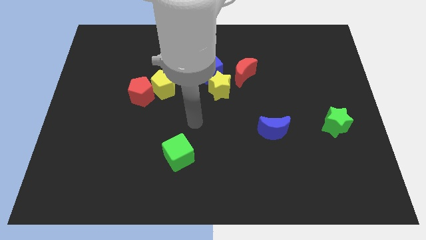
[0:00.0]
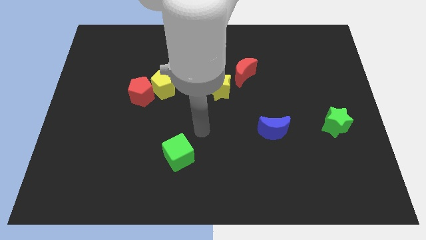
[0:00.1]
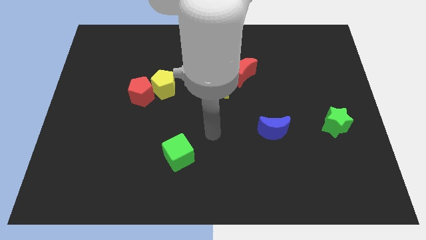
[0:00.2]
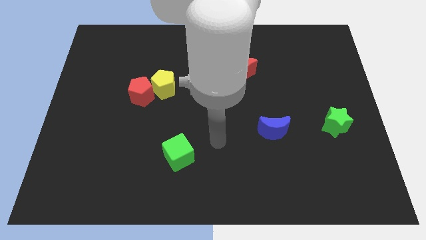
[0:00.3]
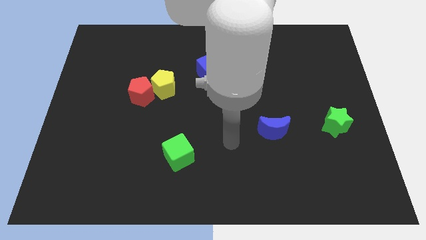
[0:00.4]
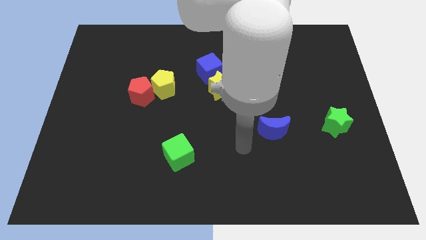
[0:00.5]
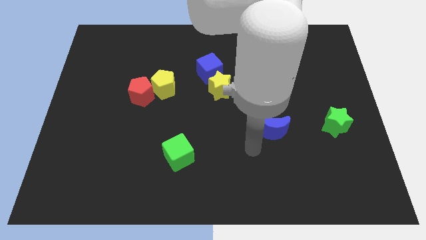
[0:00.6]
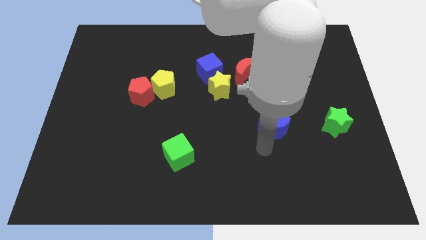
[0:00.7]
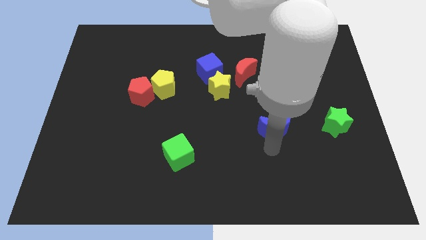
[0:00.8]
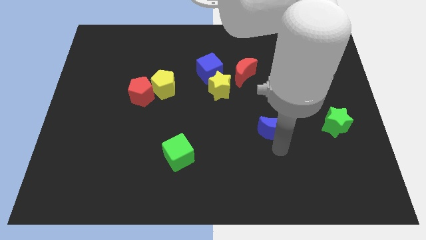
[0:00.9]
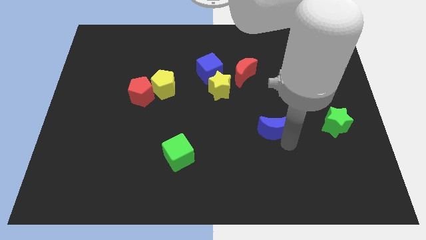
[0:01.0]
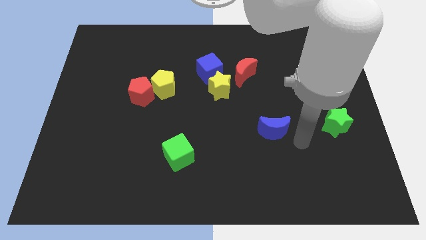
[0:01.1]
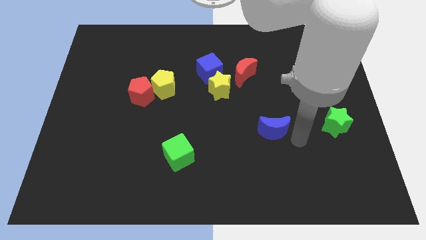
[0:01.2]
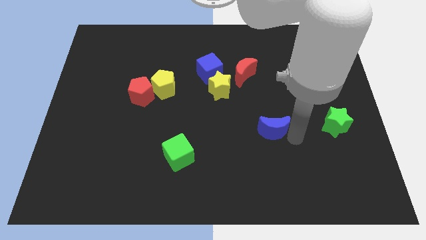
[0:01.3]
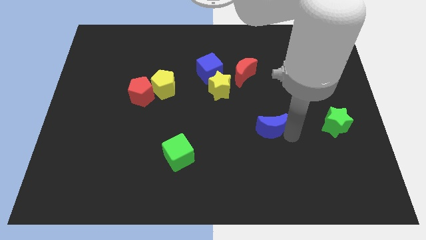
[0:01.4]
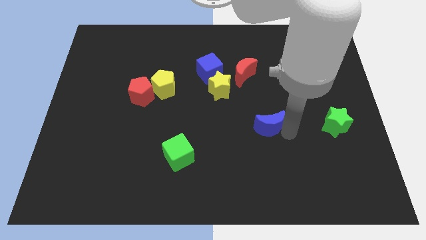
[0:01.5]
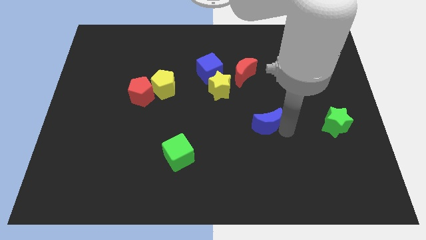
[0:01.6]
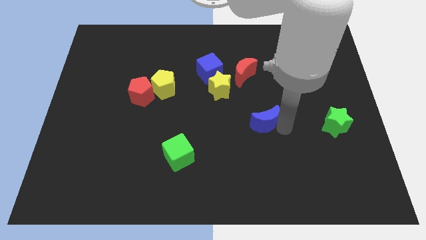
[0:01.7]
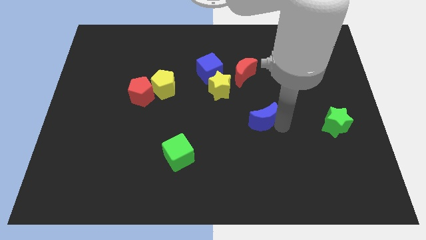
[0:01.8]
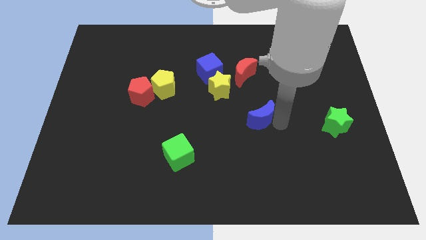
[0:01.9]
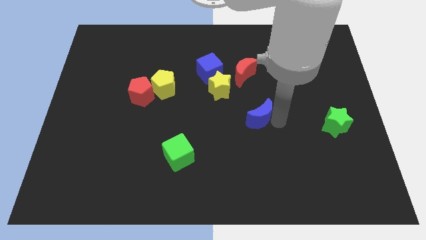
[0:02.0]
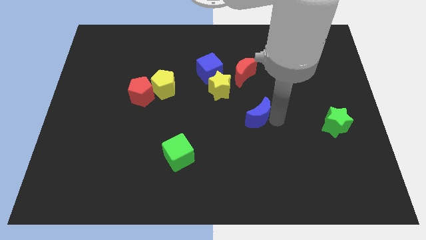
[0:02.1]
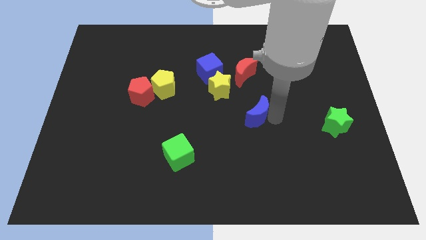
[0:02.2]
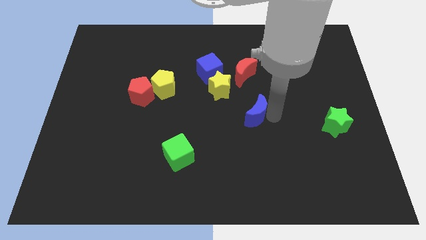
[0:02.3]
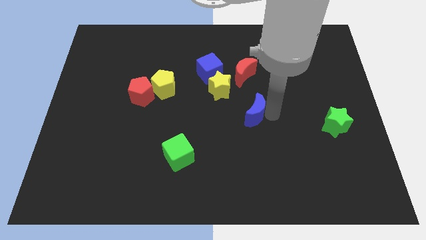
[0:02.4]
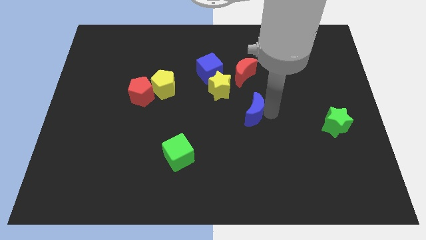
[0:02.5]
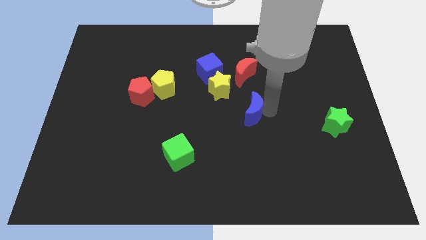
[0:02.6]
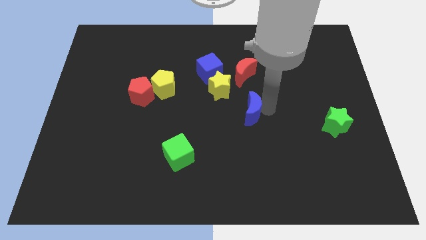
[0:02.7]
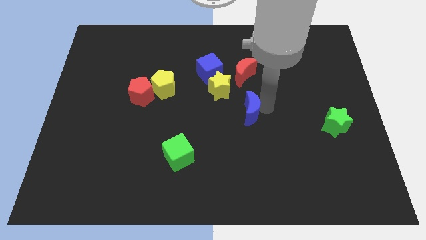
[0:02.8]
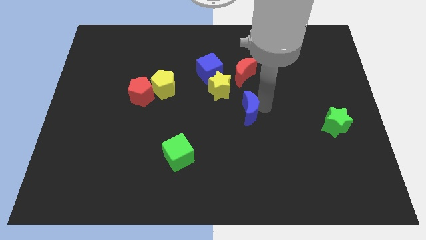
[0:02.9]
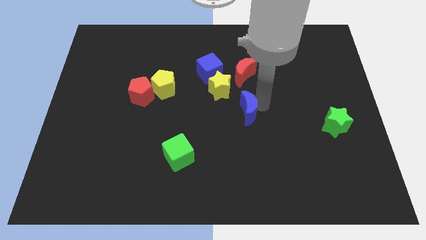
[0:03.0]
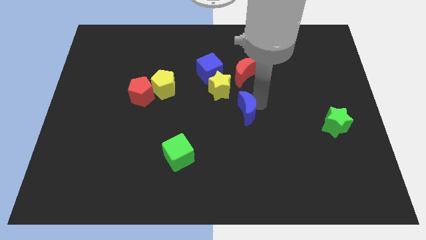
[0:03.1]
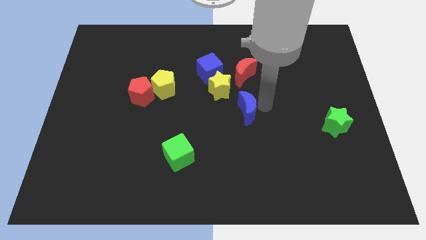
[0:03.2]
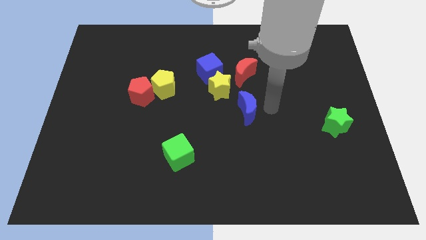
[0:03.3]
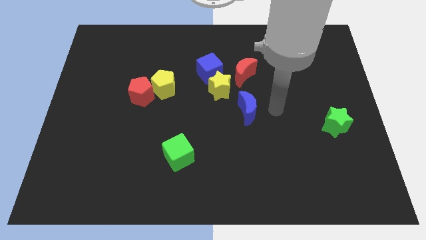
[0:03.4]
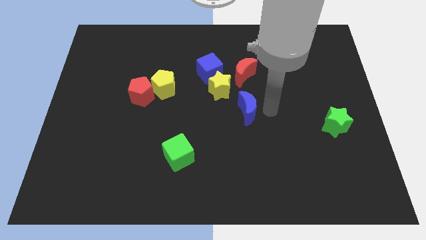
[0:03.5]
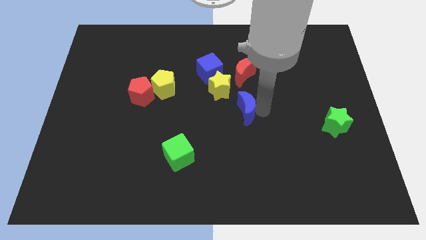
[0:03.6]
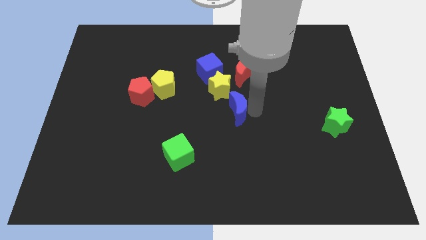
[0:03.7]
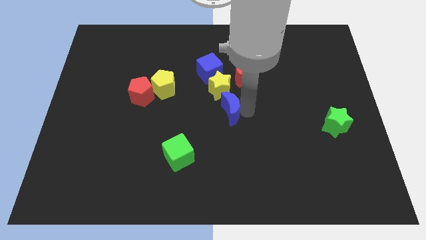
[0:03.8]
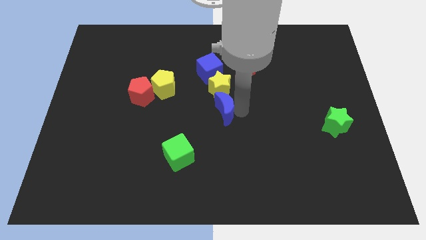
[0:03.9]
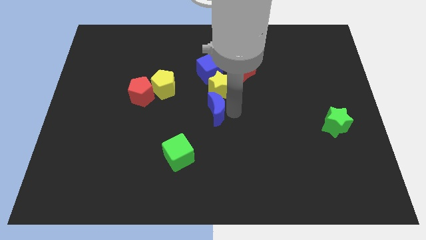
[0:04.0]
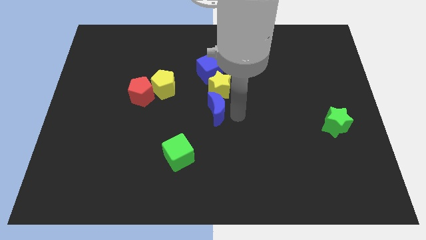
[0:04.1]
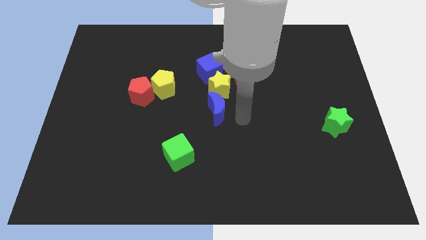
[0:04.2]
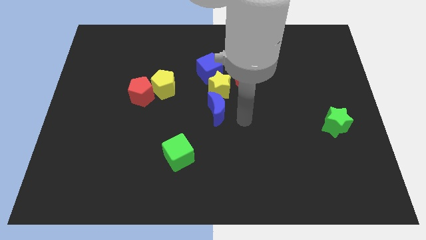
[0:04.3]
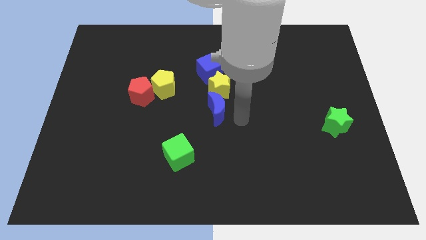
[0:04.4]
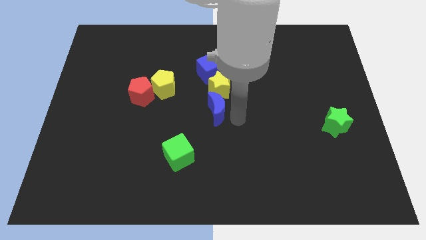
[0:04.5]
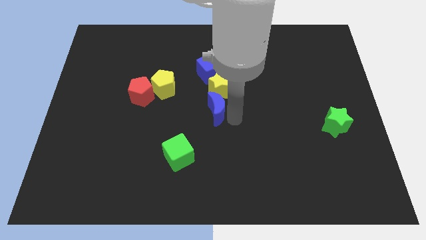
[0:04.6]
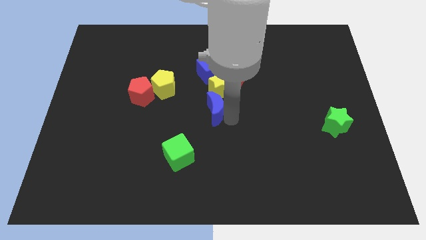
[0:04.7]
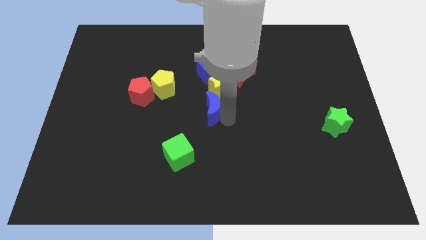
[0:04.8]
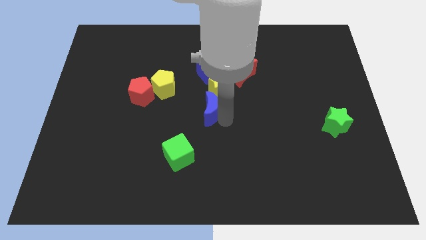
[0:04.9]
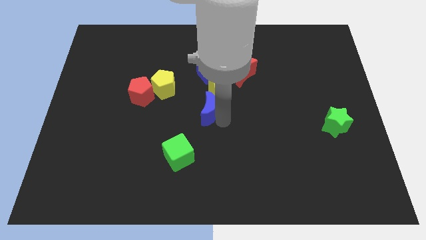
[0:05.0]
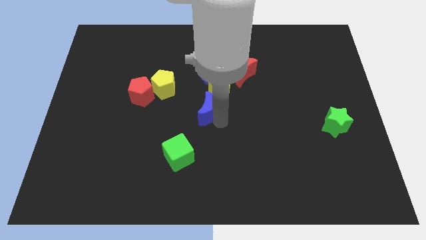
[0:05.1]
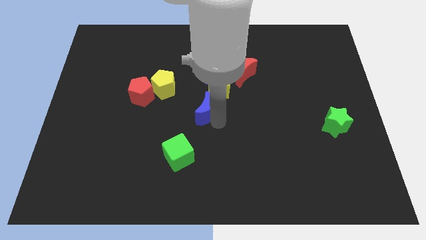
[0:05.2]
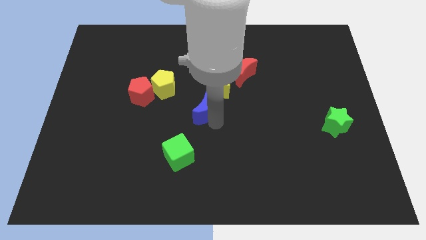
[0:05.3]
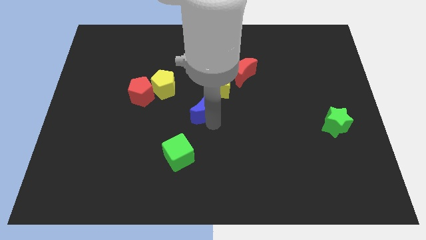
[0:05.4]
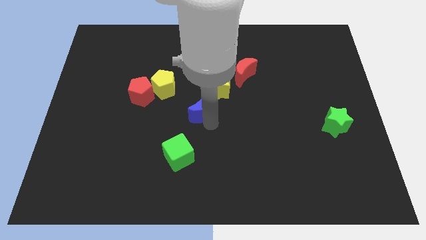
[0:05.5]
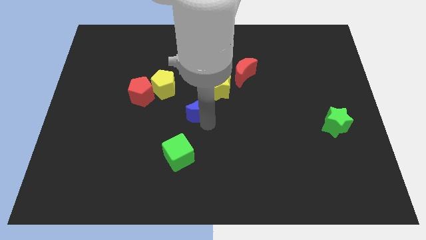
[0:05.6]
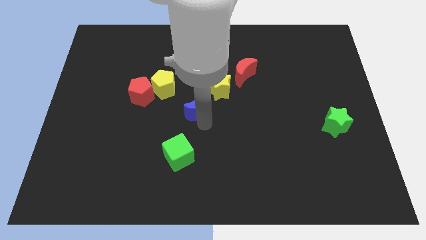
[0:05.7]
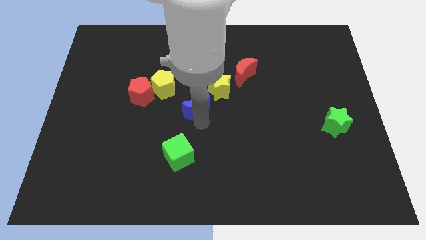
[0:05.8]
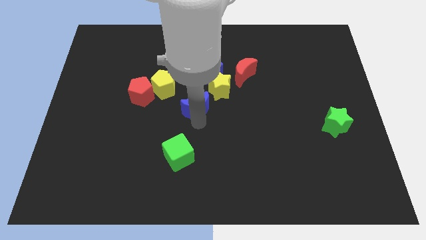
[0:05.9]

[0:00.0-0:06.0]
push the blue moon just right of the red pentagon

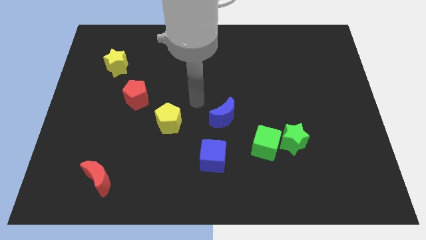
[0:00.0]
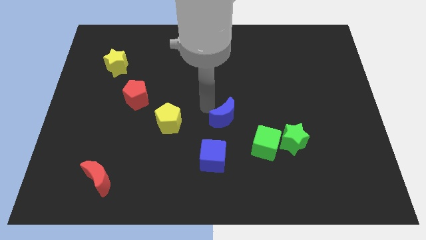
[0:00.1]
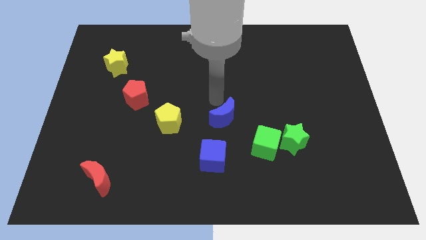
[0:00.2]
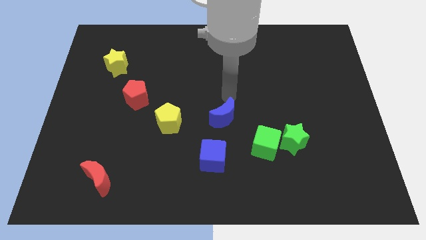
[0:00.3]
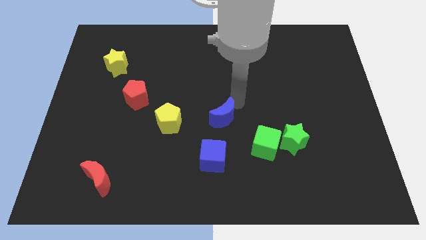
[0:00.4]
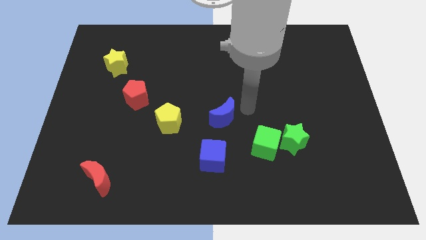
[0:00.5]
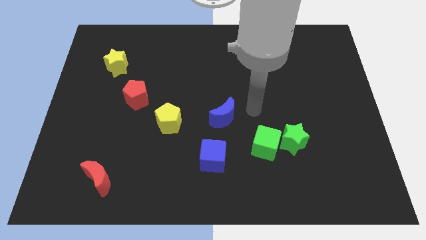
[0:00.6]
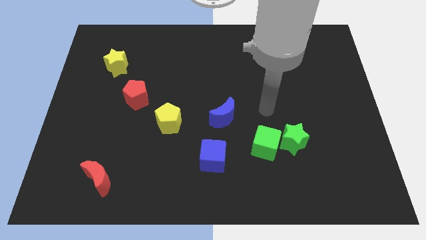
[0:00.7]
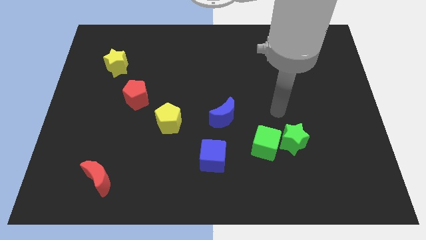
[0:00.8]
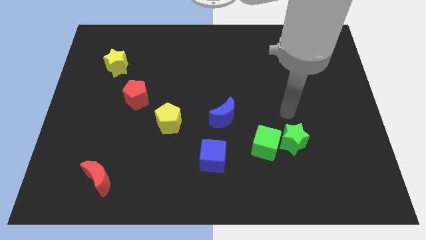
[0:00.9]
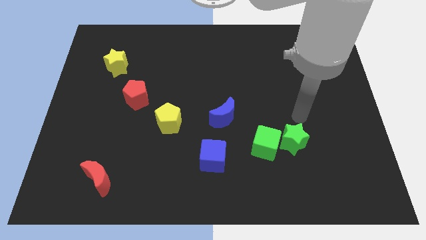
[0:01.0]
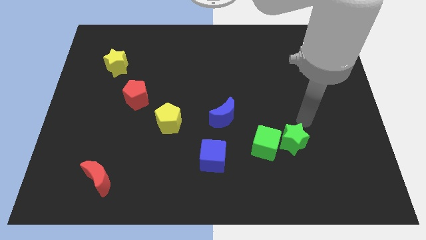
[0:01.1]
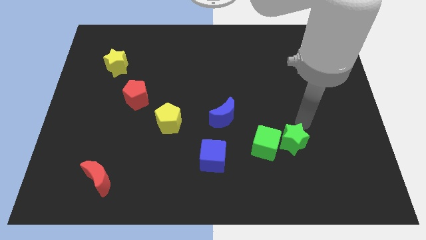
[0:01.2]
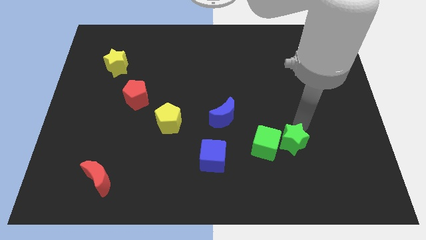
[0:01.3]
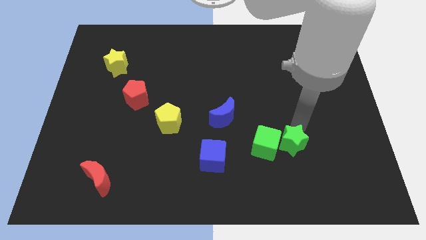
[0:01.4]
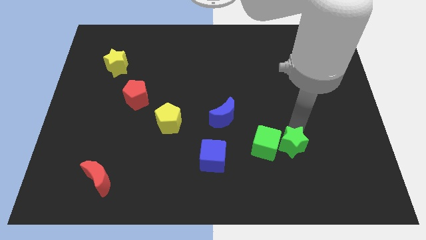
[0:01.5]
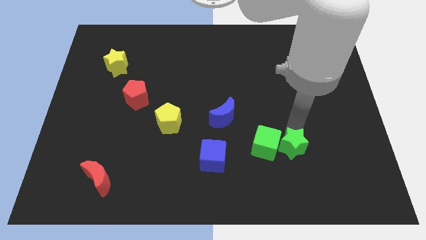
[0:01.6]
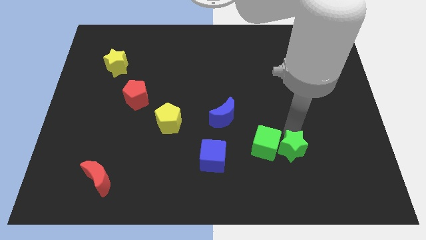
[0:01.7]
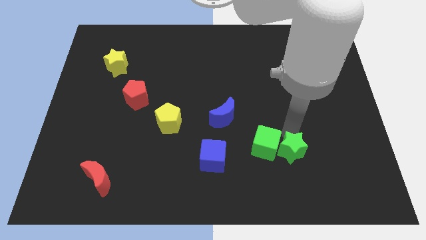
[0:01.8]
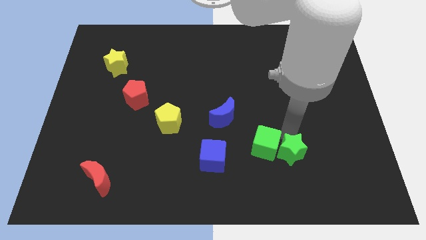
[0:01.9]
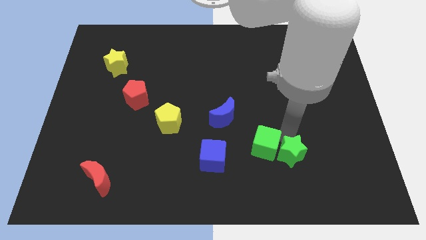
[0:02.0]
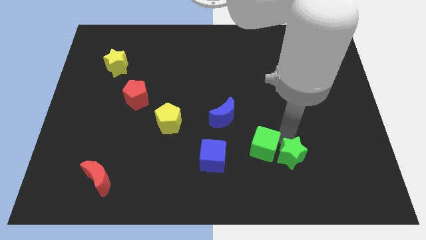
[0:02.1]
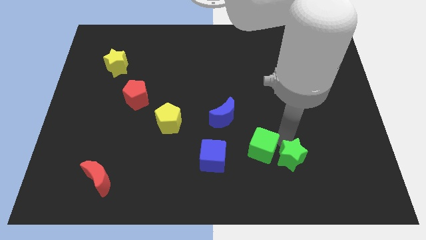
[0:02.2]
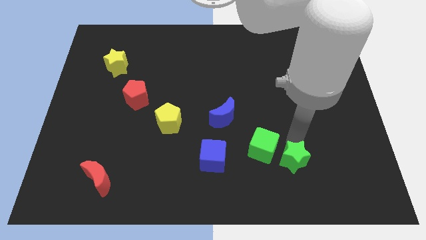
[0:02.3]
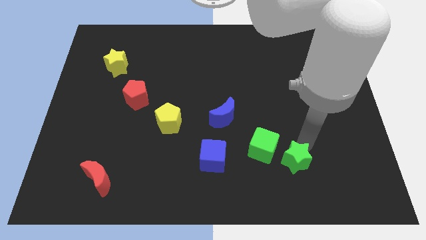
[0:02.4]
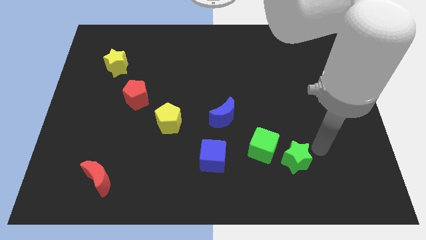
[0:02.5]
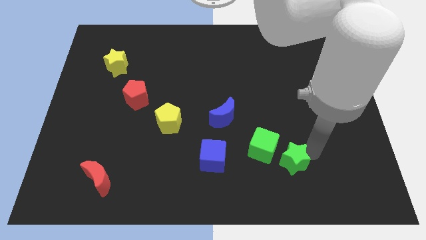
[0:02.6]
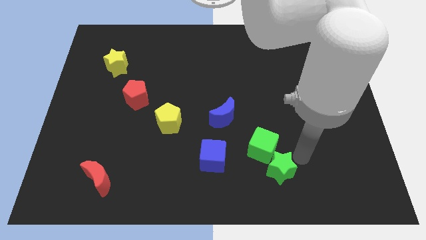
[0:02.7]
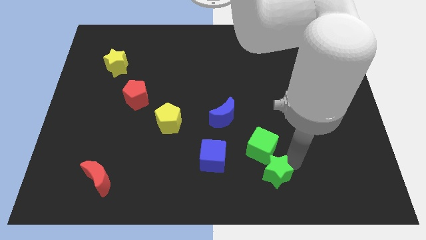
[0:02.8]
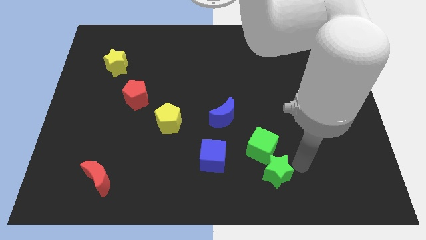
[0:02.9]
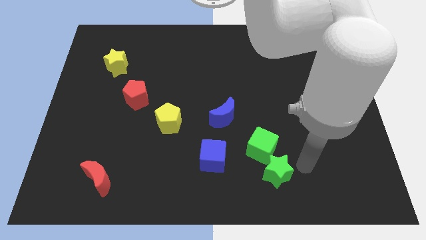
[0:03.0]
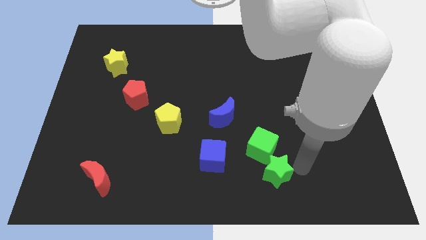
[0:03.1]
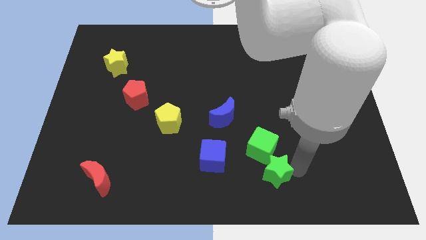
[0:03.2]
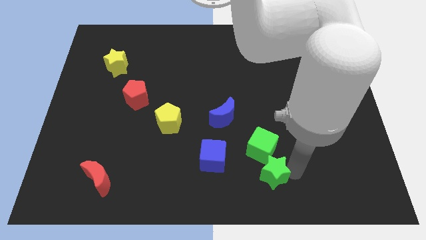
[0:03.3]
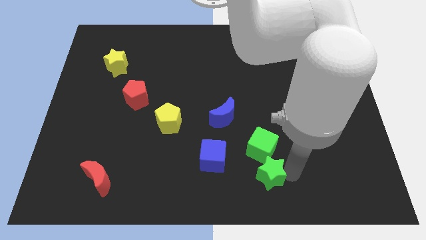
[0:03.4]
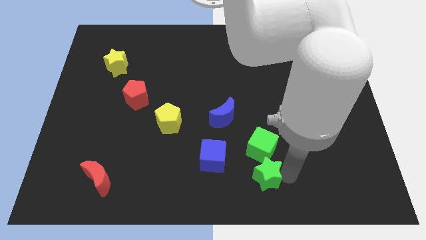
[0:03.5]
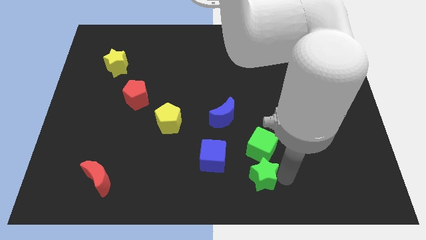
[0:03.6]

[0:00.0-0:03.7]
move the green star diagonally down and to the right of the blue cube
